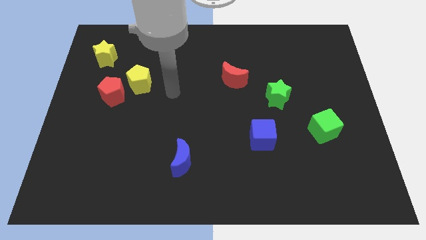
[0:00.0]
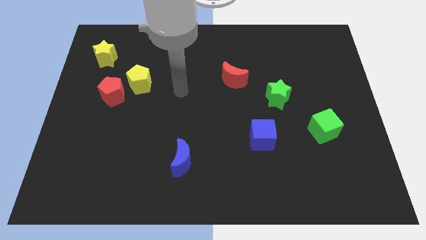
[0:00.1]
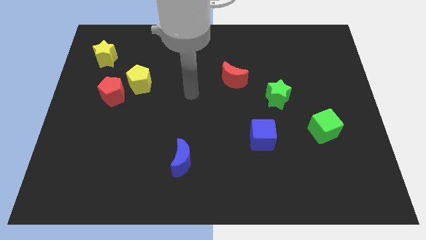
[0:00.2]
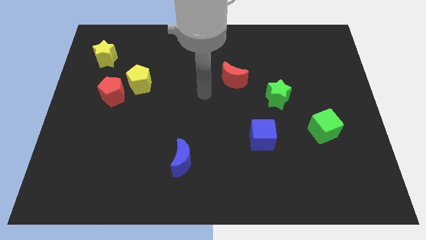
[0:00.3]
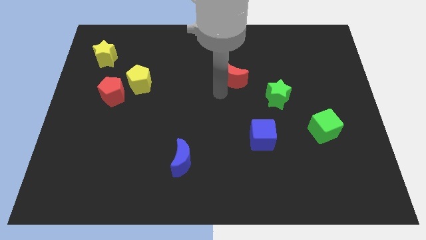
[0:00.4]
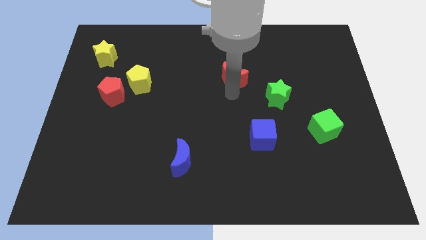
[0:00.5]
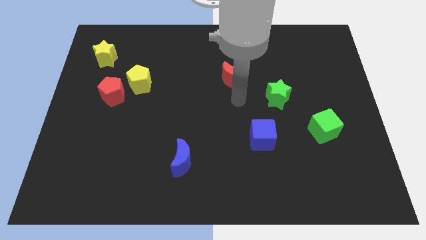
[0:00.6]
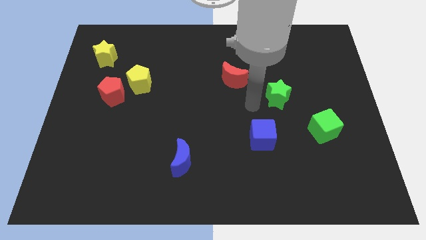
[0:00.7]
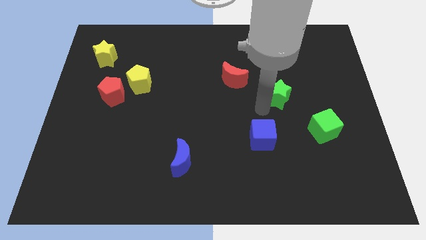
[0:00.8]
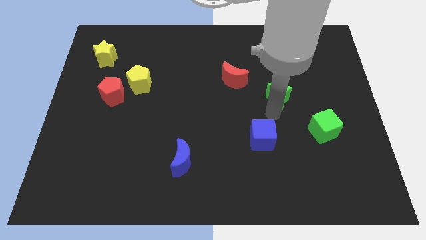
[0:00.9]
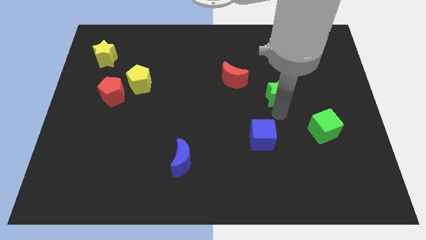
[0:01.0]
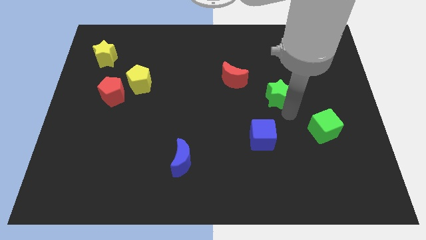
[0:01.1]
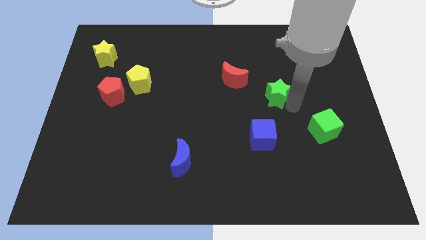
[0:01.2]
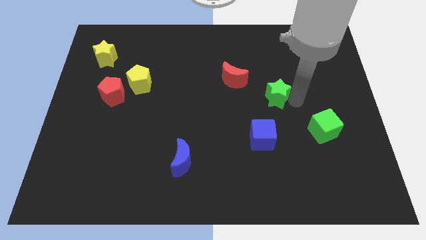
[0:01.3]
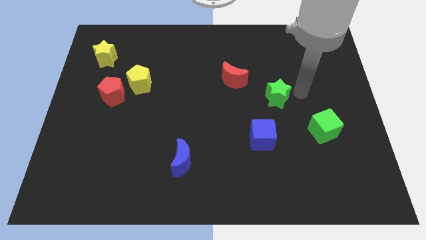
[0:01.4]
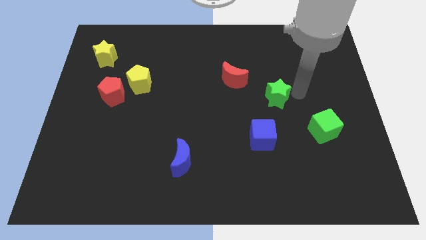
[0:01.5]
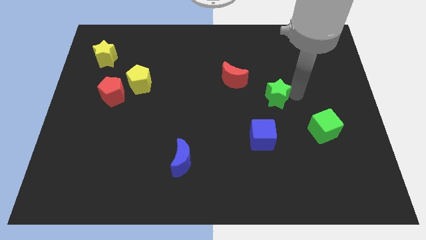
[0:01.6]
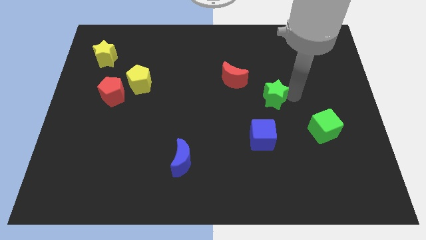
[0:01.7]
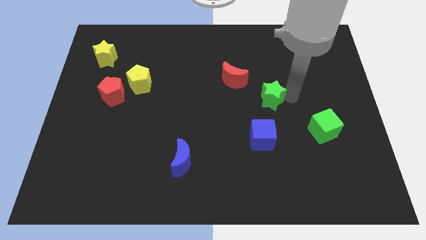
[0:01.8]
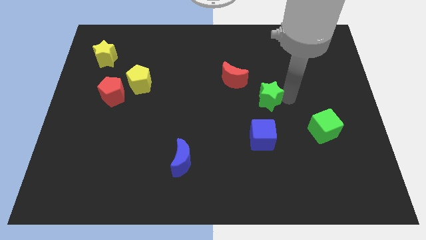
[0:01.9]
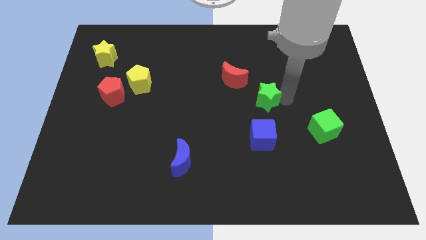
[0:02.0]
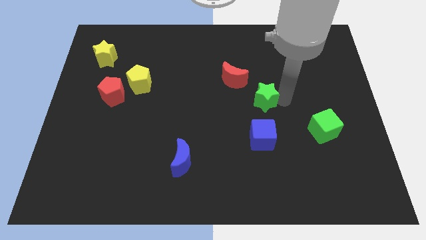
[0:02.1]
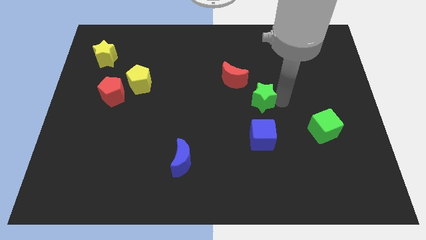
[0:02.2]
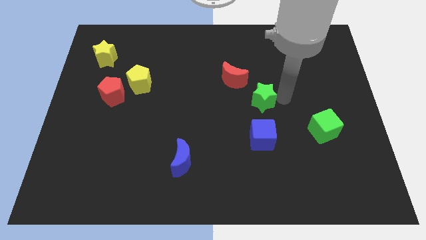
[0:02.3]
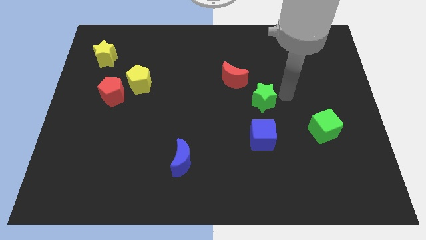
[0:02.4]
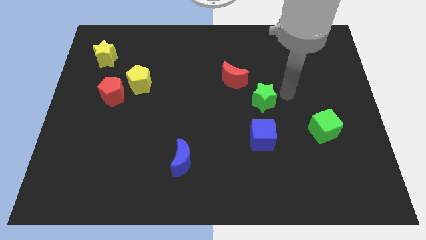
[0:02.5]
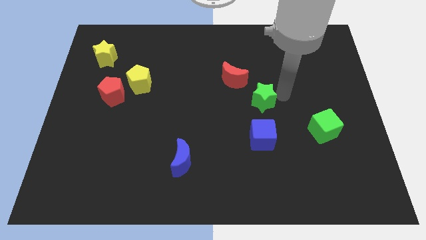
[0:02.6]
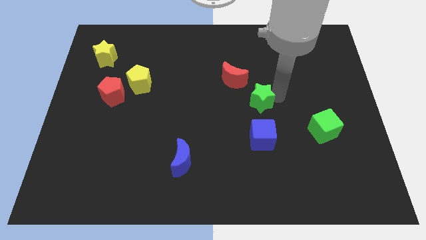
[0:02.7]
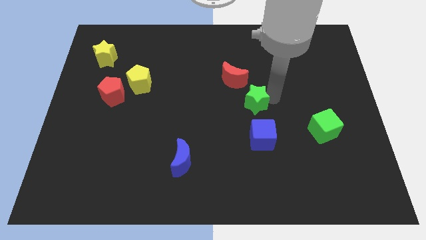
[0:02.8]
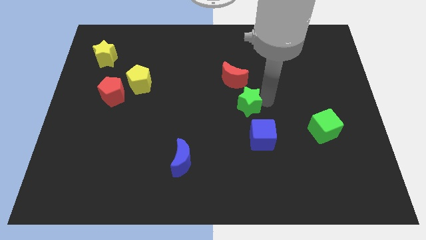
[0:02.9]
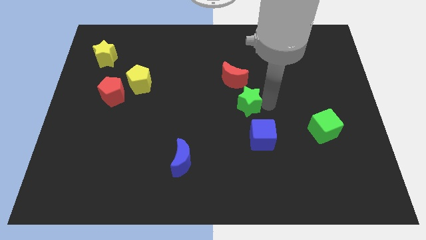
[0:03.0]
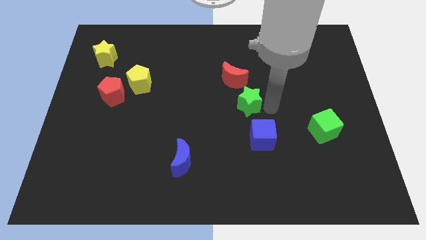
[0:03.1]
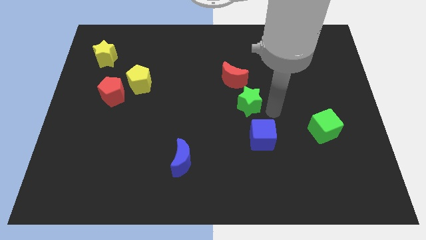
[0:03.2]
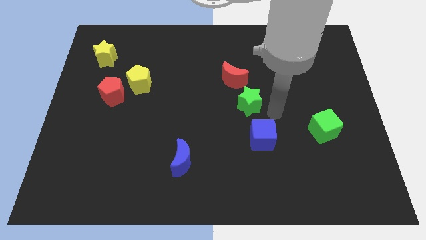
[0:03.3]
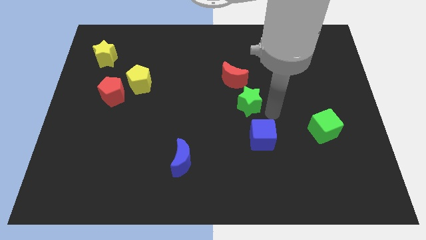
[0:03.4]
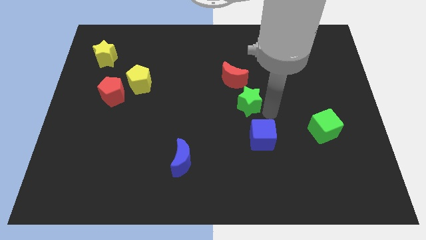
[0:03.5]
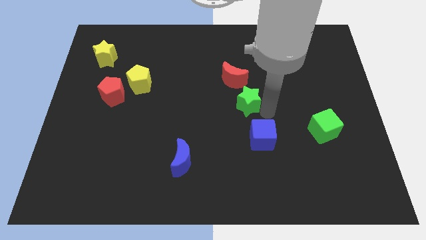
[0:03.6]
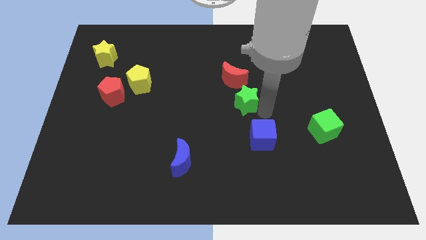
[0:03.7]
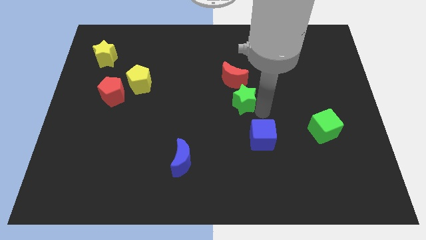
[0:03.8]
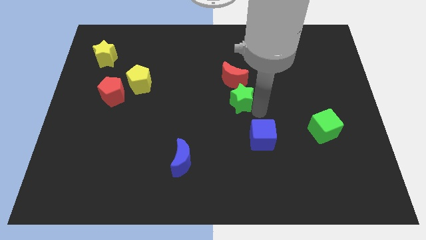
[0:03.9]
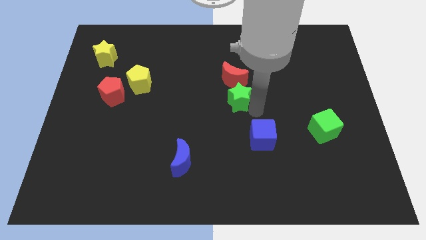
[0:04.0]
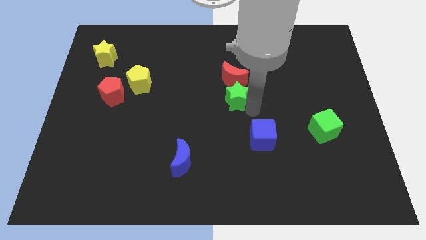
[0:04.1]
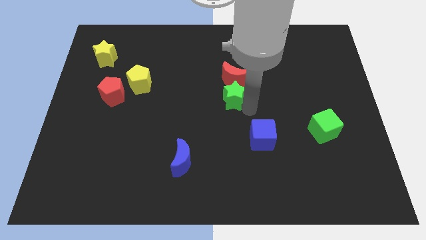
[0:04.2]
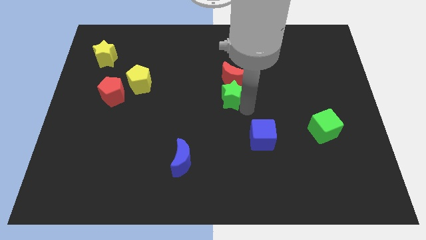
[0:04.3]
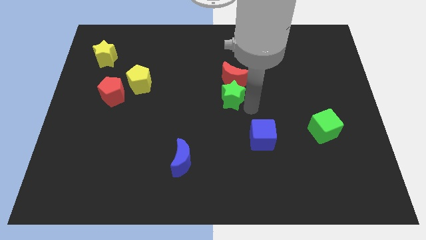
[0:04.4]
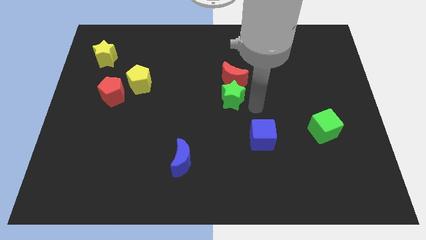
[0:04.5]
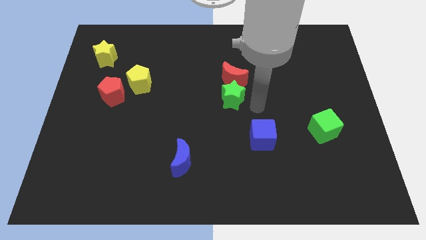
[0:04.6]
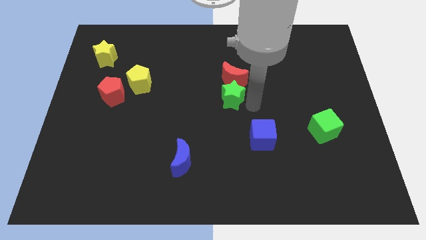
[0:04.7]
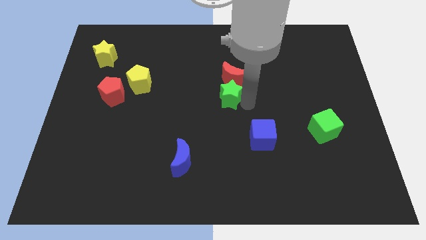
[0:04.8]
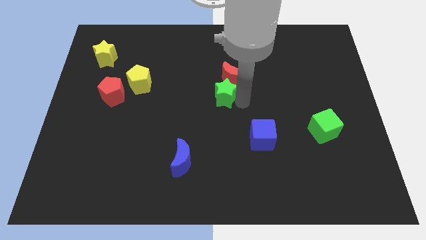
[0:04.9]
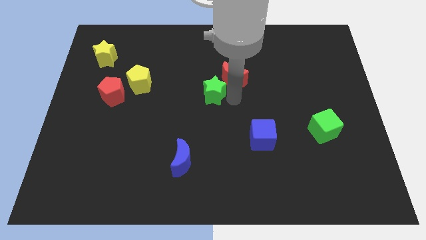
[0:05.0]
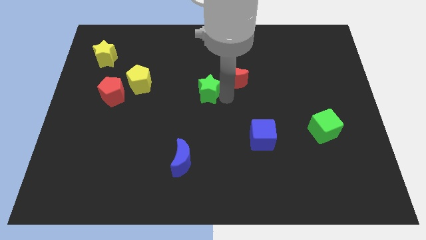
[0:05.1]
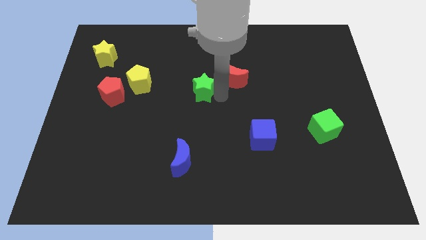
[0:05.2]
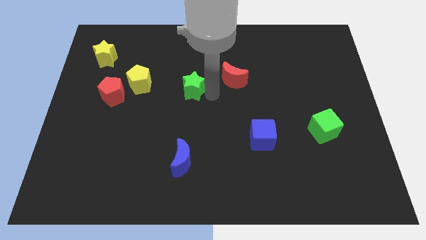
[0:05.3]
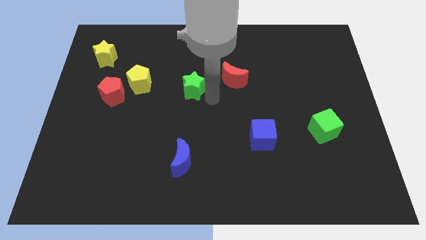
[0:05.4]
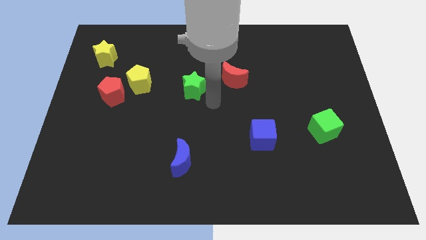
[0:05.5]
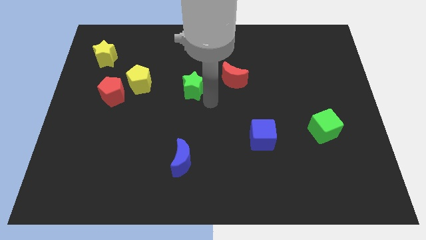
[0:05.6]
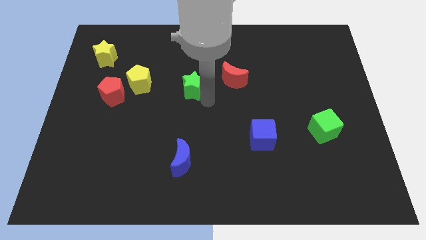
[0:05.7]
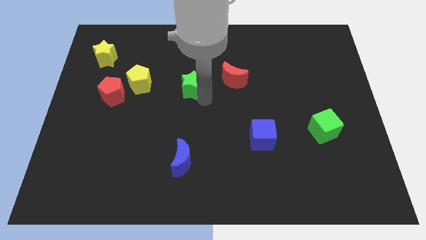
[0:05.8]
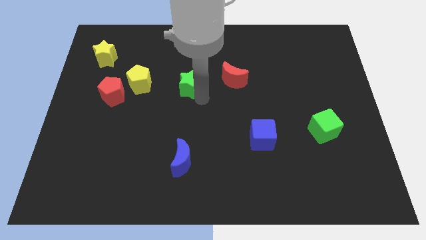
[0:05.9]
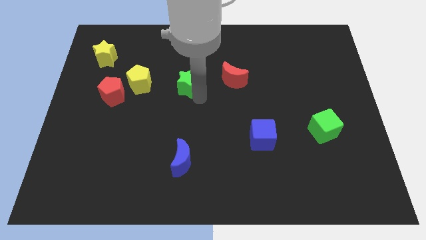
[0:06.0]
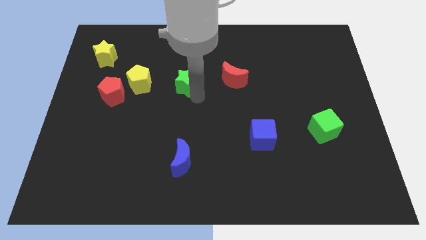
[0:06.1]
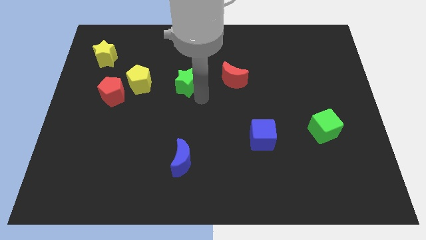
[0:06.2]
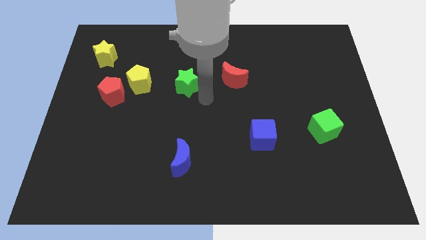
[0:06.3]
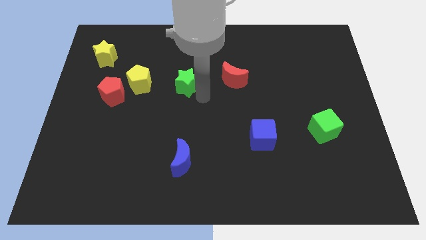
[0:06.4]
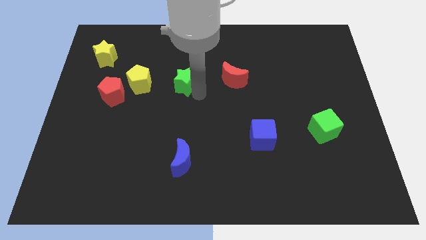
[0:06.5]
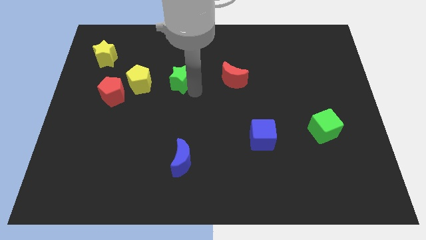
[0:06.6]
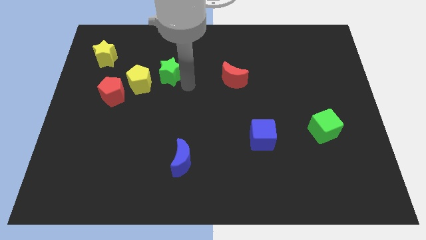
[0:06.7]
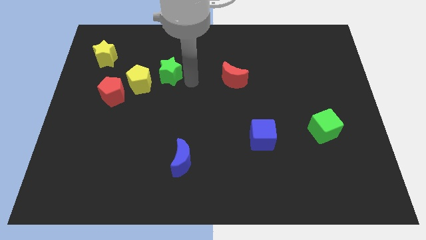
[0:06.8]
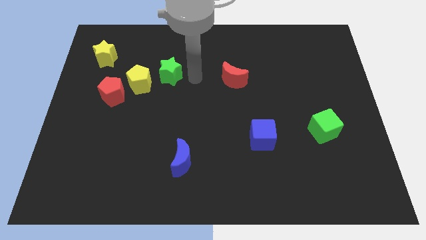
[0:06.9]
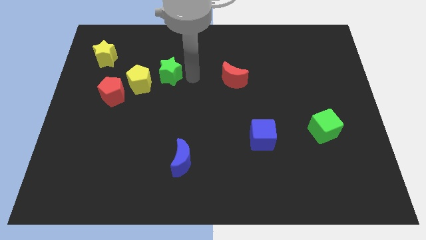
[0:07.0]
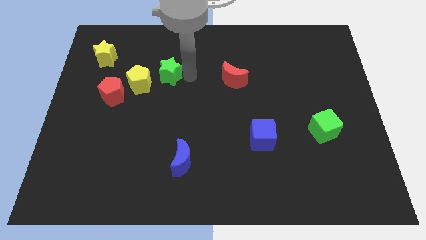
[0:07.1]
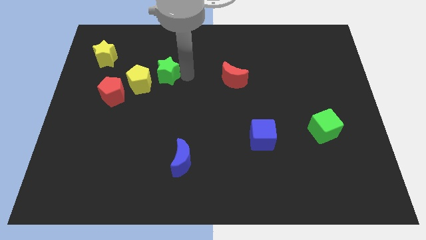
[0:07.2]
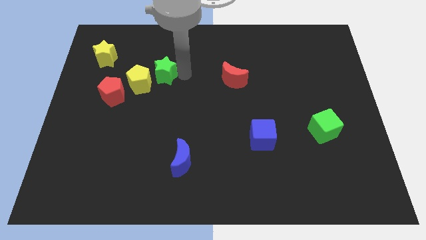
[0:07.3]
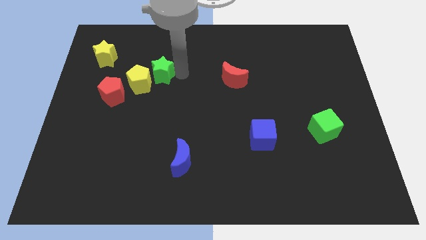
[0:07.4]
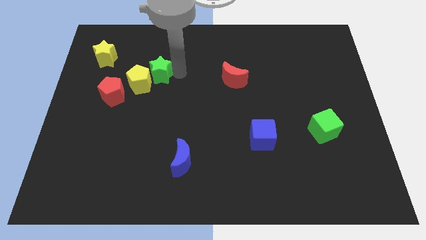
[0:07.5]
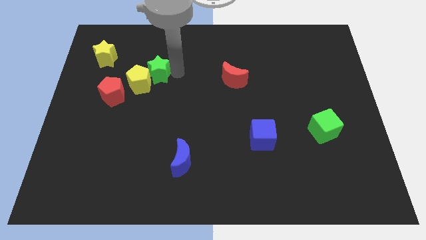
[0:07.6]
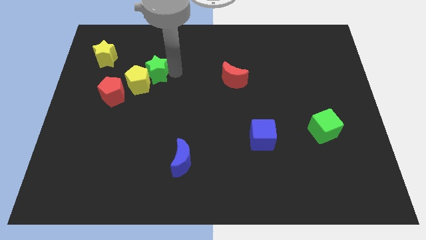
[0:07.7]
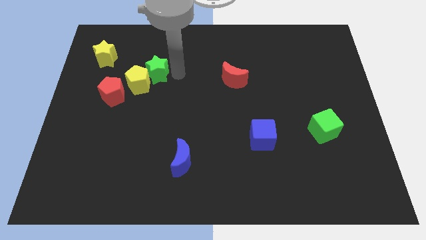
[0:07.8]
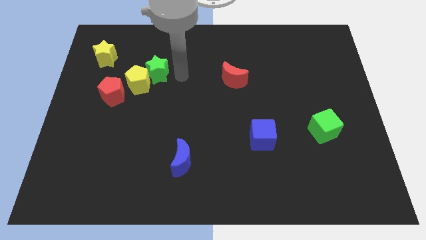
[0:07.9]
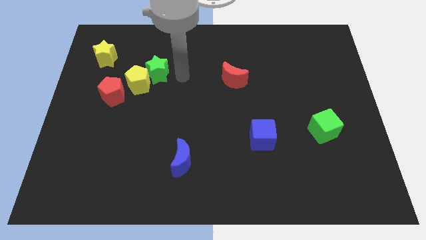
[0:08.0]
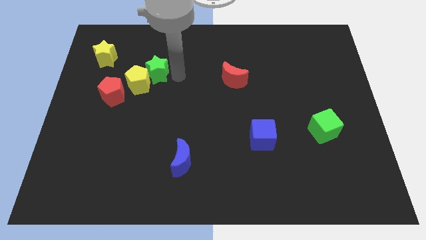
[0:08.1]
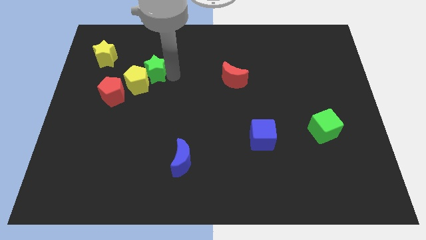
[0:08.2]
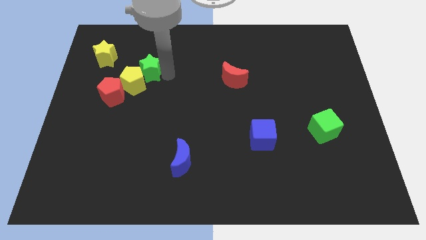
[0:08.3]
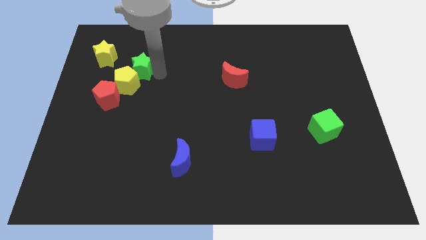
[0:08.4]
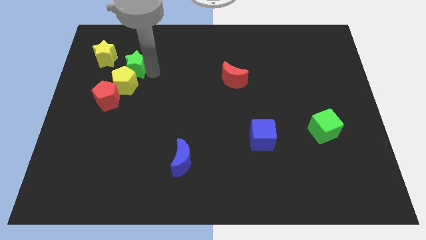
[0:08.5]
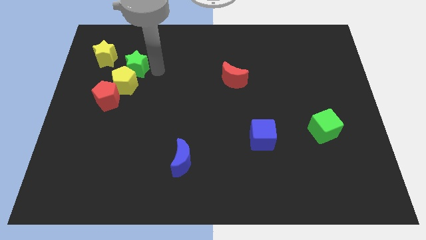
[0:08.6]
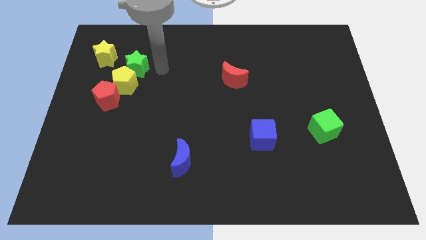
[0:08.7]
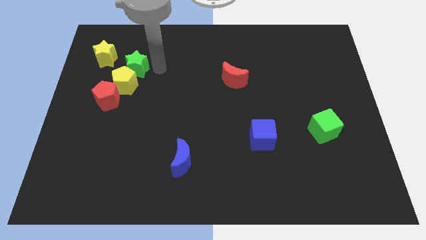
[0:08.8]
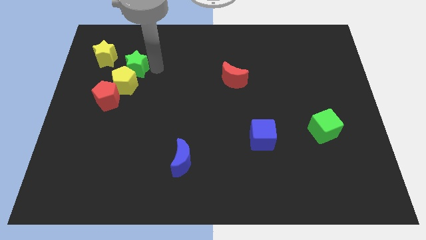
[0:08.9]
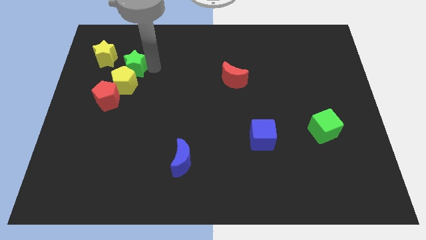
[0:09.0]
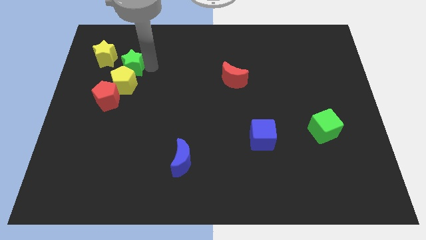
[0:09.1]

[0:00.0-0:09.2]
slide the green star to the top of the red pentagon
